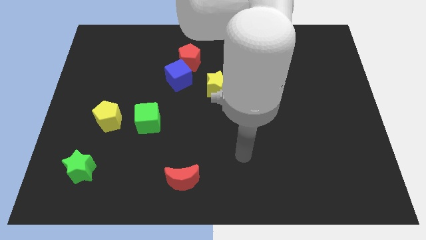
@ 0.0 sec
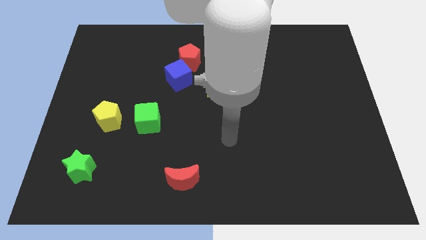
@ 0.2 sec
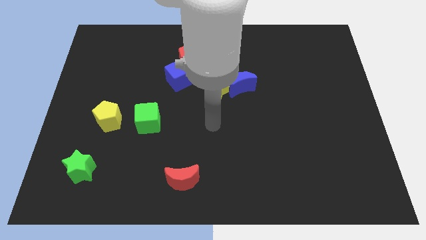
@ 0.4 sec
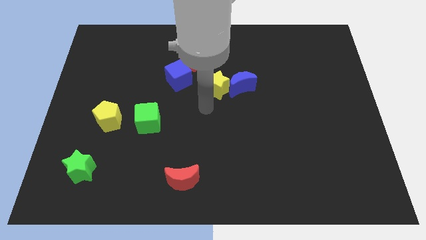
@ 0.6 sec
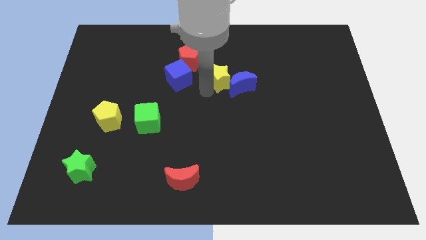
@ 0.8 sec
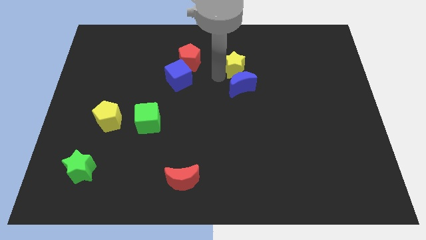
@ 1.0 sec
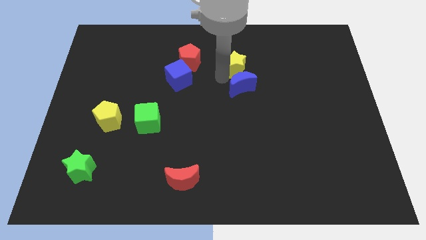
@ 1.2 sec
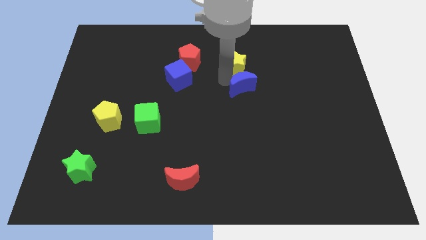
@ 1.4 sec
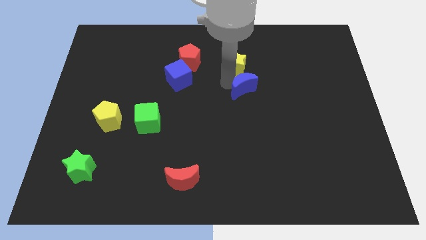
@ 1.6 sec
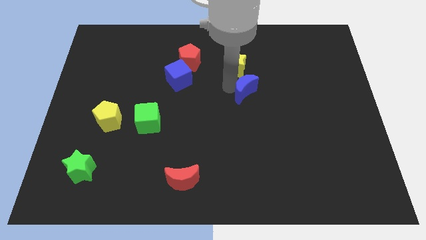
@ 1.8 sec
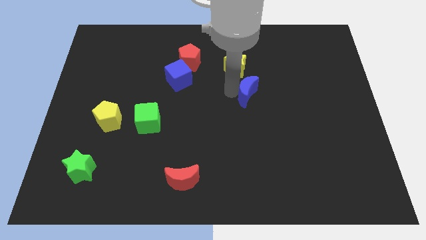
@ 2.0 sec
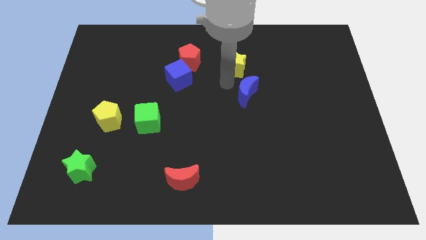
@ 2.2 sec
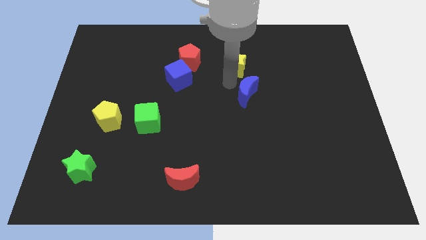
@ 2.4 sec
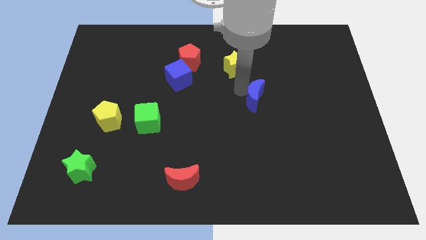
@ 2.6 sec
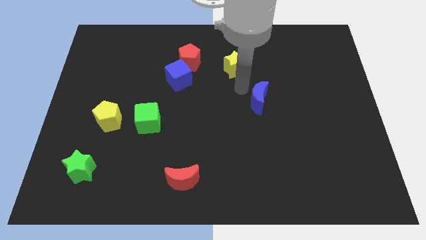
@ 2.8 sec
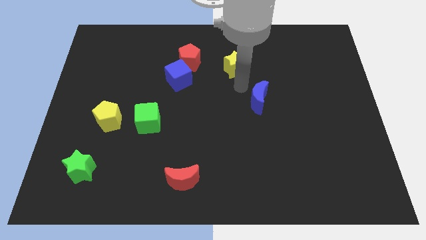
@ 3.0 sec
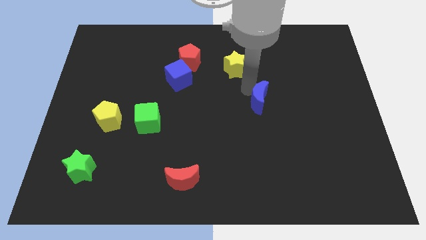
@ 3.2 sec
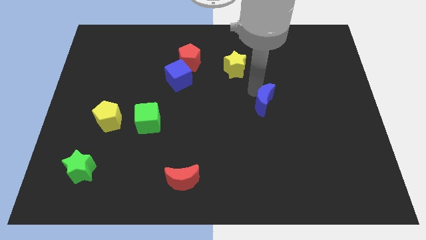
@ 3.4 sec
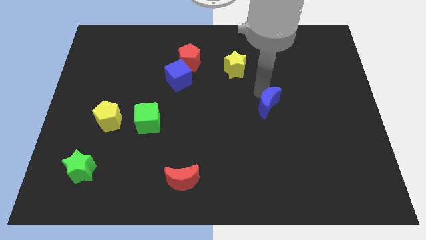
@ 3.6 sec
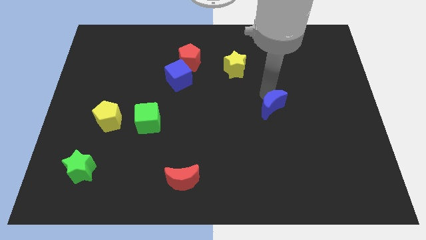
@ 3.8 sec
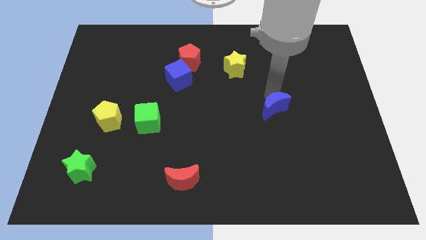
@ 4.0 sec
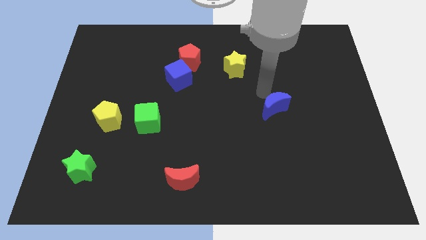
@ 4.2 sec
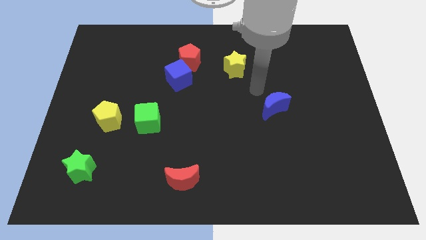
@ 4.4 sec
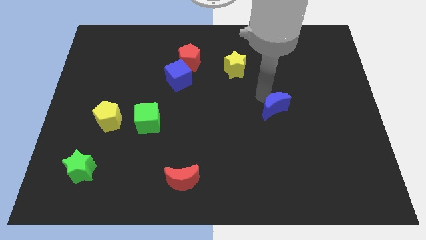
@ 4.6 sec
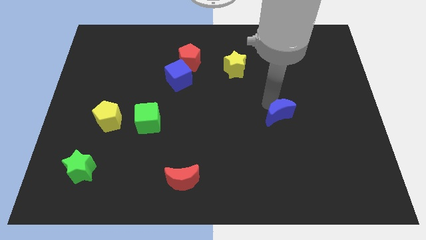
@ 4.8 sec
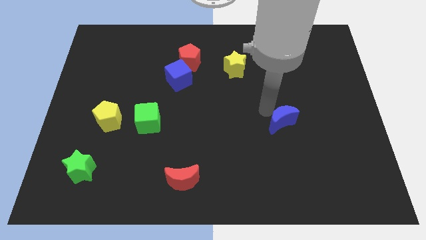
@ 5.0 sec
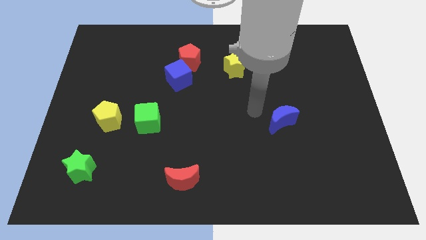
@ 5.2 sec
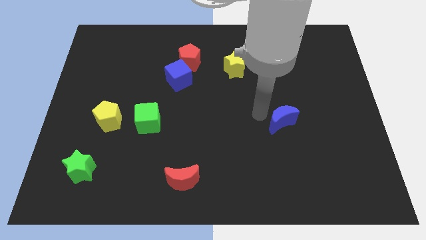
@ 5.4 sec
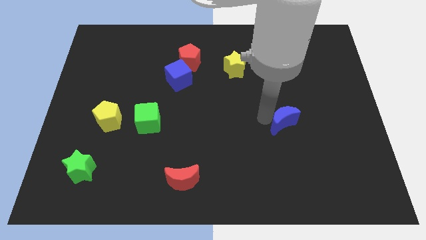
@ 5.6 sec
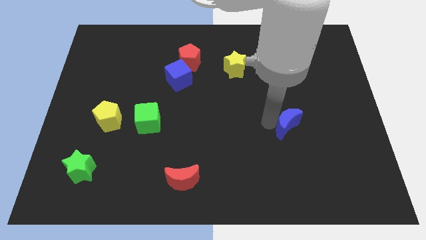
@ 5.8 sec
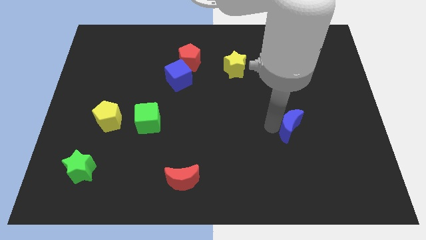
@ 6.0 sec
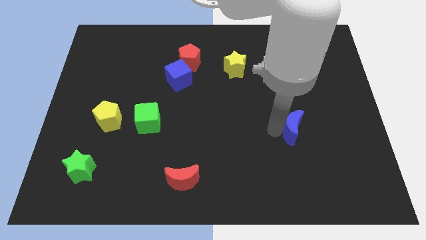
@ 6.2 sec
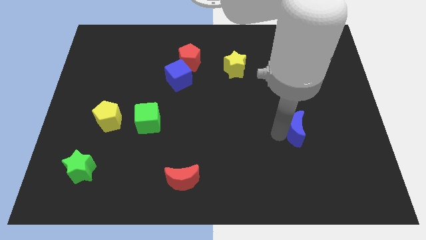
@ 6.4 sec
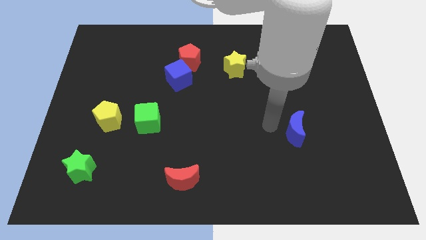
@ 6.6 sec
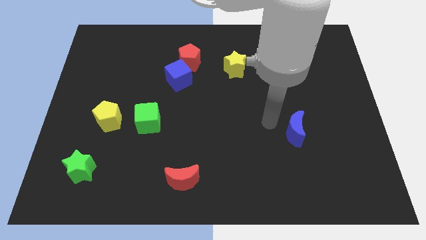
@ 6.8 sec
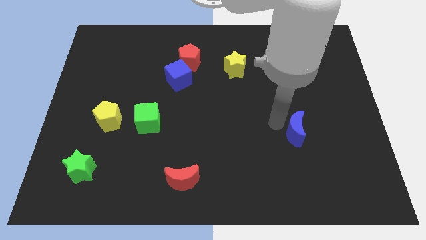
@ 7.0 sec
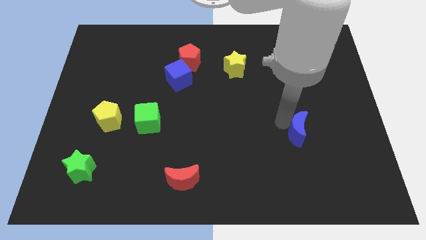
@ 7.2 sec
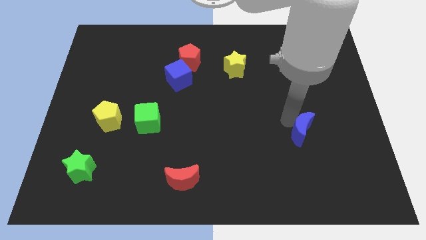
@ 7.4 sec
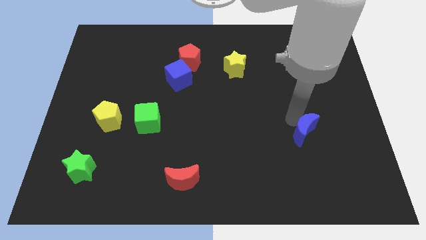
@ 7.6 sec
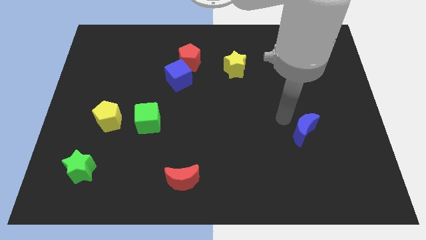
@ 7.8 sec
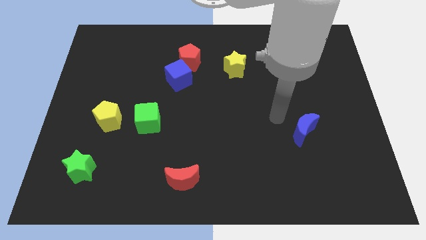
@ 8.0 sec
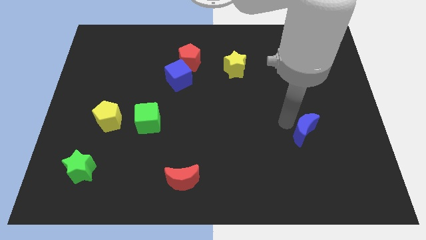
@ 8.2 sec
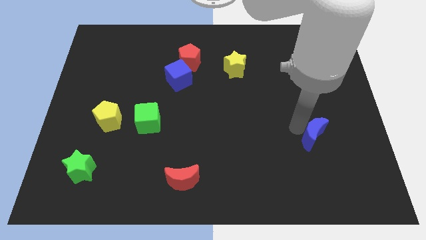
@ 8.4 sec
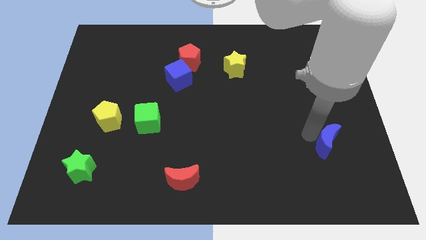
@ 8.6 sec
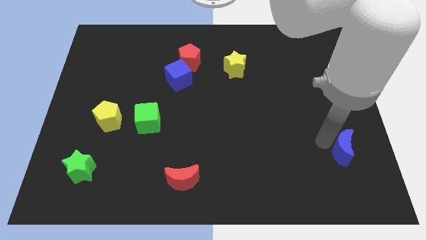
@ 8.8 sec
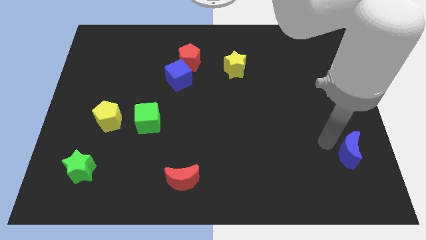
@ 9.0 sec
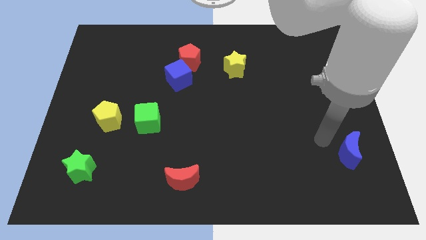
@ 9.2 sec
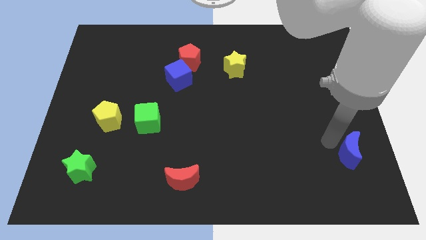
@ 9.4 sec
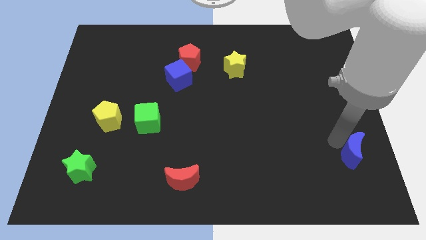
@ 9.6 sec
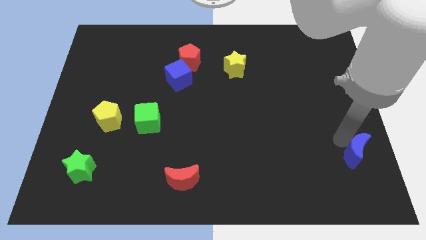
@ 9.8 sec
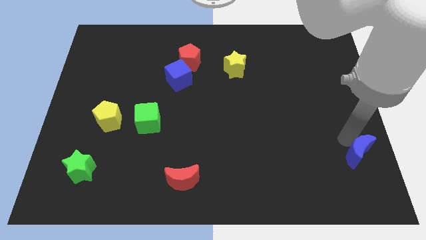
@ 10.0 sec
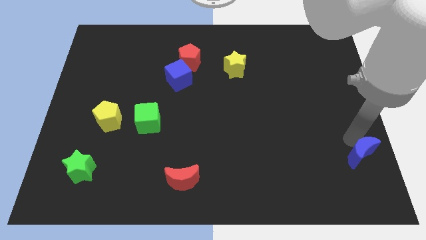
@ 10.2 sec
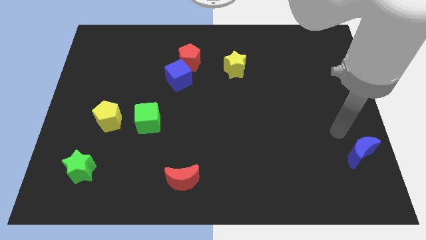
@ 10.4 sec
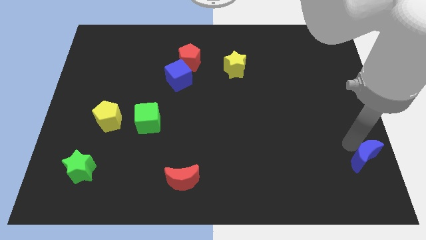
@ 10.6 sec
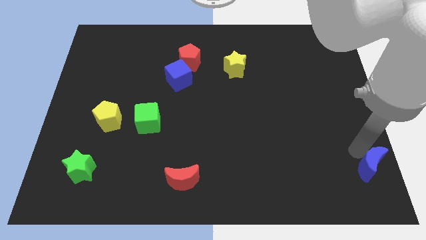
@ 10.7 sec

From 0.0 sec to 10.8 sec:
slide the blue moon to the lower right corner
